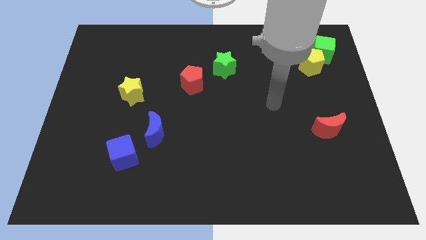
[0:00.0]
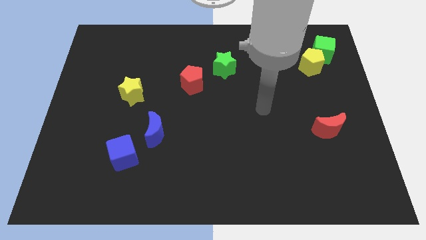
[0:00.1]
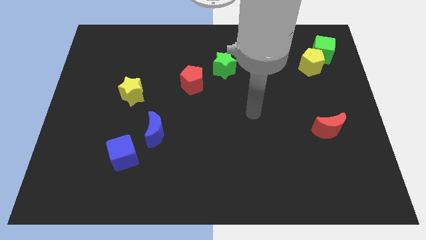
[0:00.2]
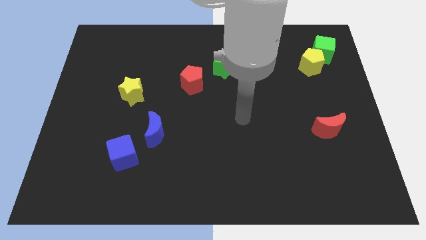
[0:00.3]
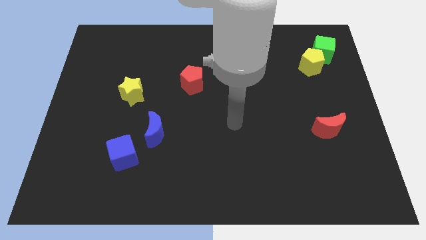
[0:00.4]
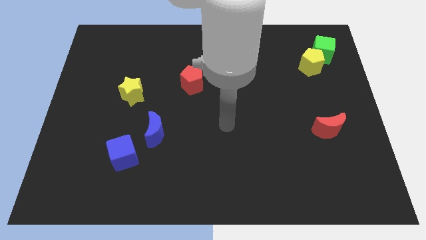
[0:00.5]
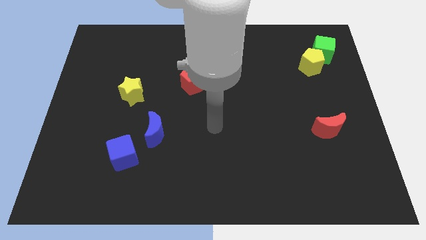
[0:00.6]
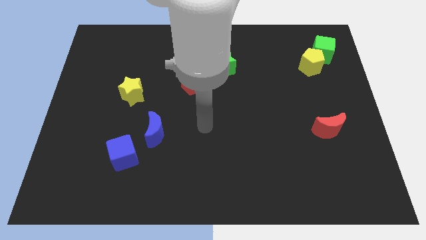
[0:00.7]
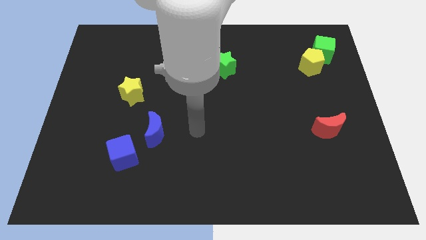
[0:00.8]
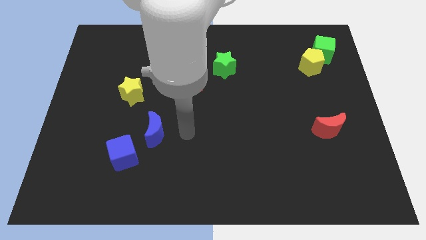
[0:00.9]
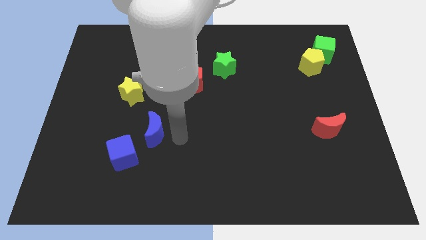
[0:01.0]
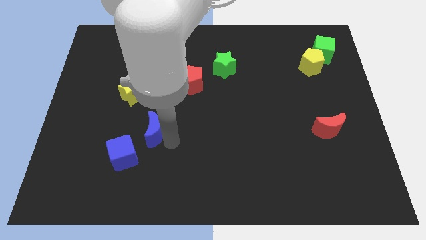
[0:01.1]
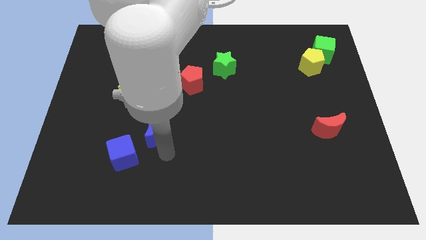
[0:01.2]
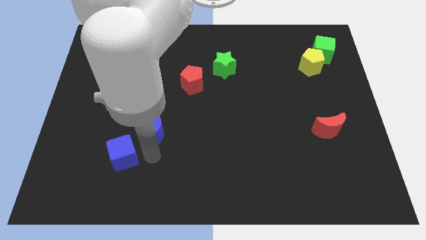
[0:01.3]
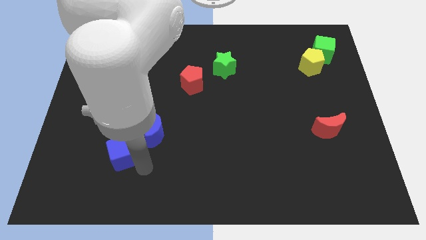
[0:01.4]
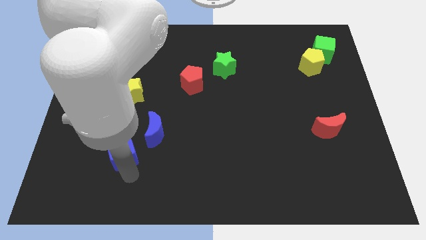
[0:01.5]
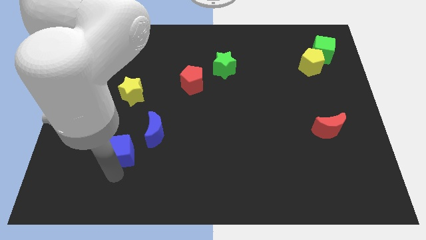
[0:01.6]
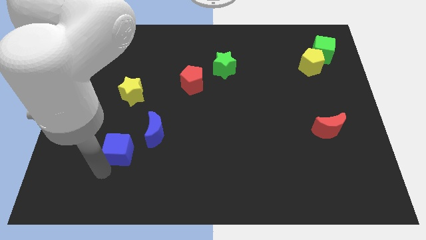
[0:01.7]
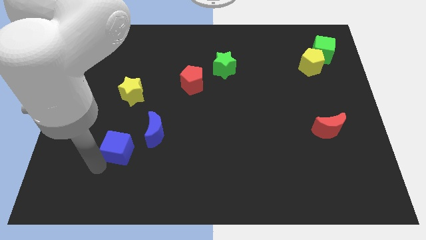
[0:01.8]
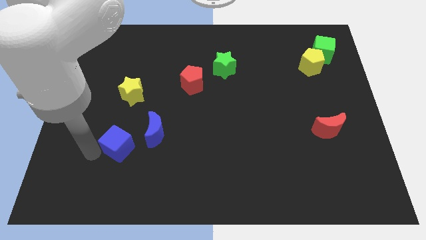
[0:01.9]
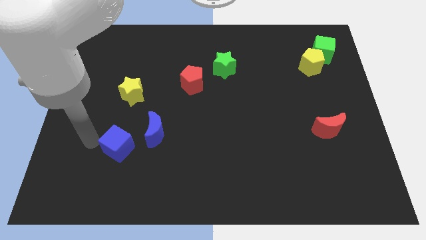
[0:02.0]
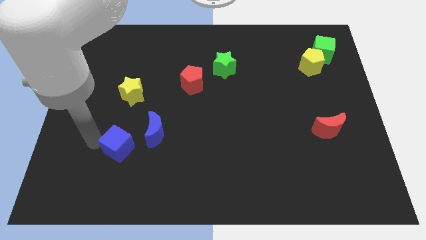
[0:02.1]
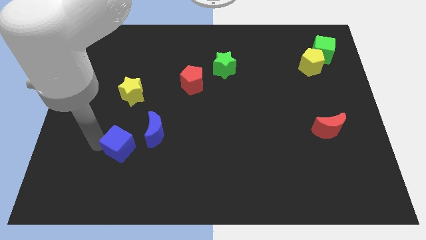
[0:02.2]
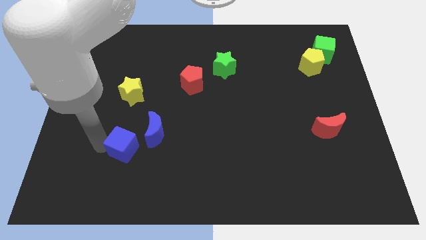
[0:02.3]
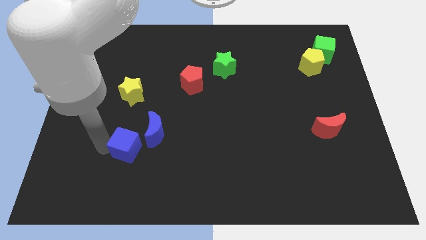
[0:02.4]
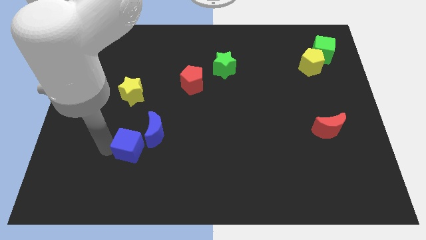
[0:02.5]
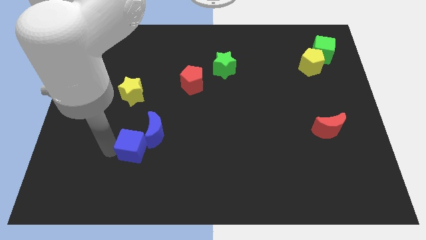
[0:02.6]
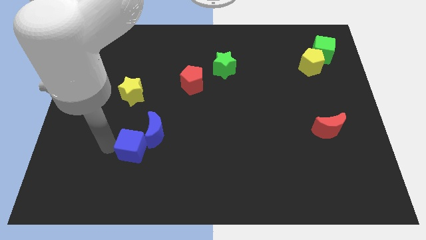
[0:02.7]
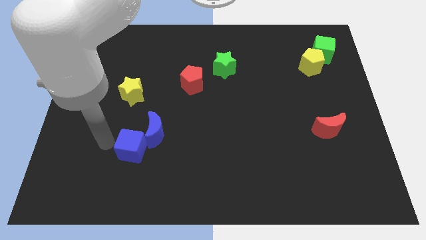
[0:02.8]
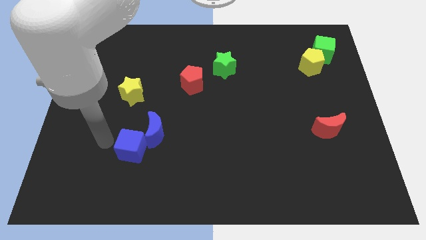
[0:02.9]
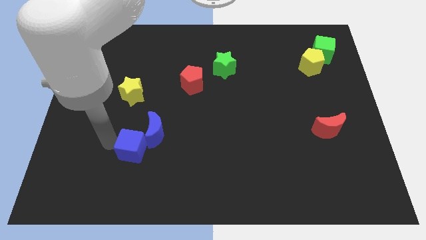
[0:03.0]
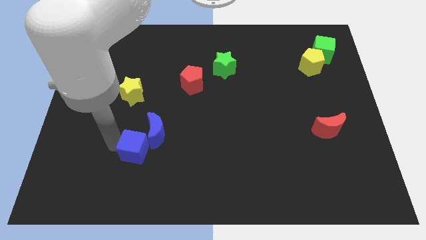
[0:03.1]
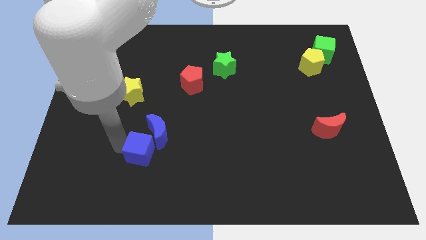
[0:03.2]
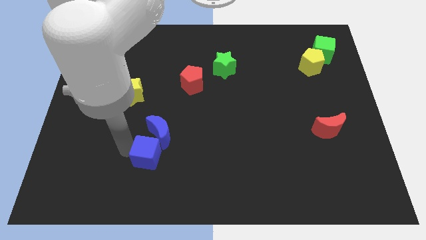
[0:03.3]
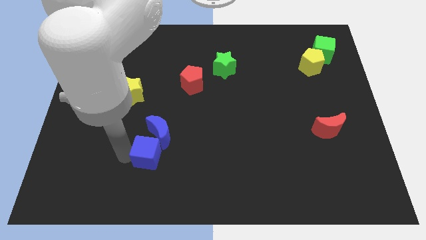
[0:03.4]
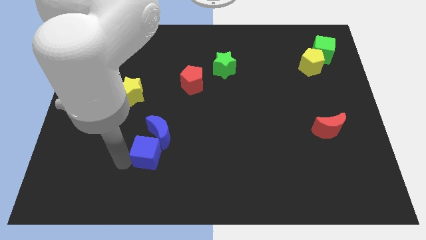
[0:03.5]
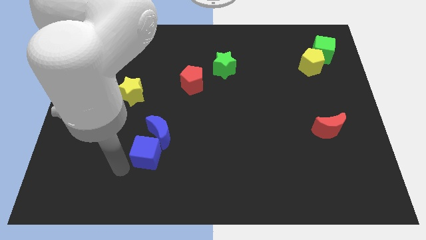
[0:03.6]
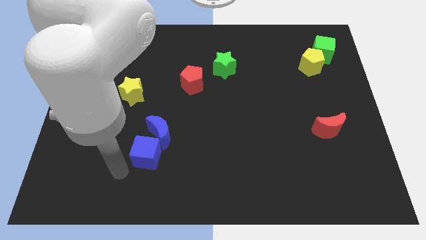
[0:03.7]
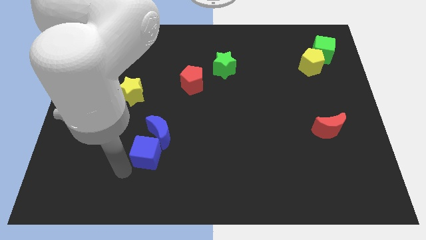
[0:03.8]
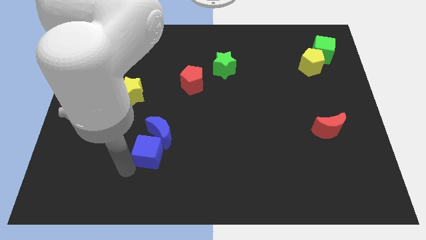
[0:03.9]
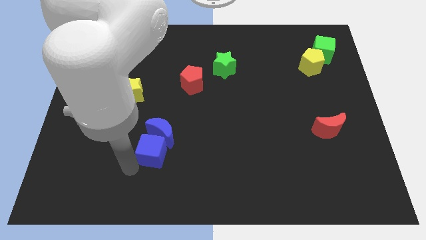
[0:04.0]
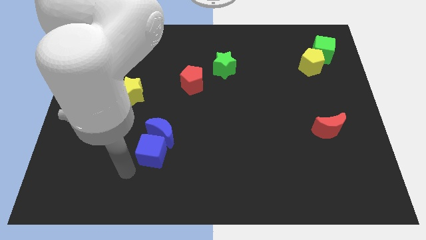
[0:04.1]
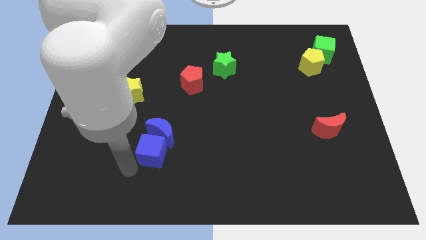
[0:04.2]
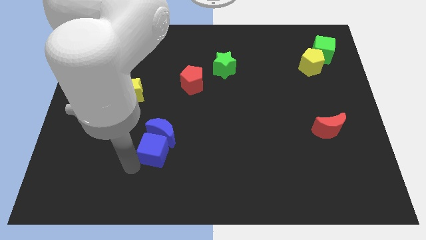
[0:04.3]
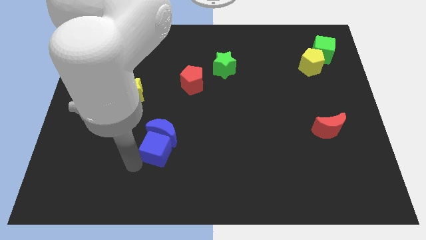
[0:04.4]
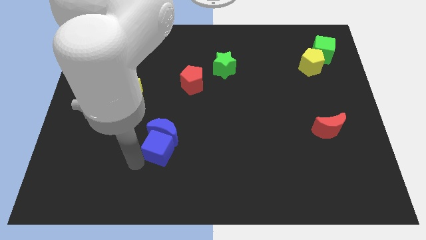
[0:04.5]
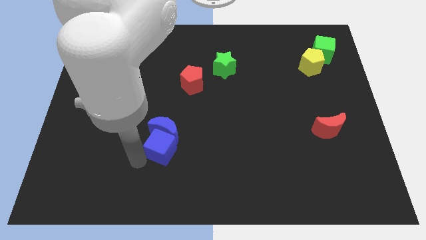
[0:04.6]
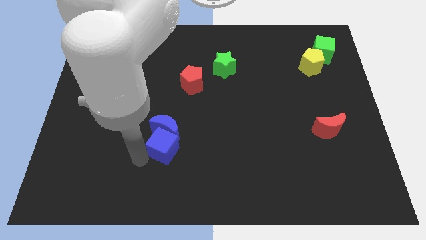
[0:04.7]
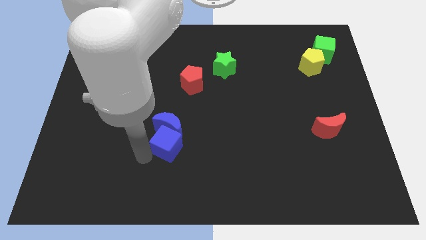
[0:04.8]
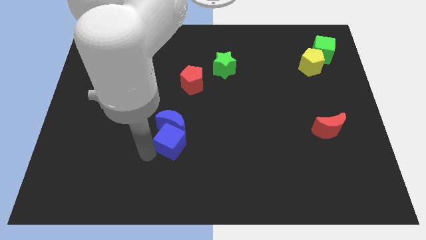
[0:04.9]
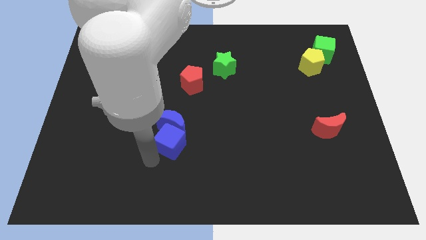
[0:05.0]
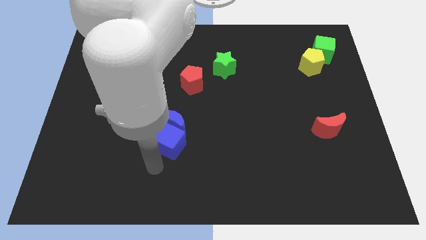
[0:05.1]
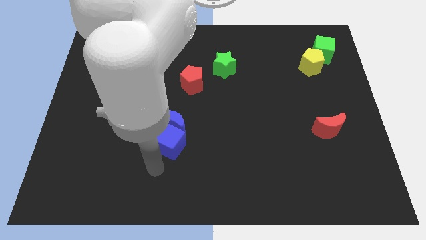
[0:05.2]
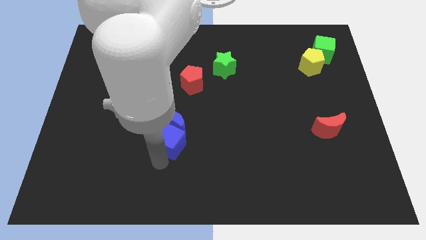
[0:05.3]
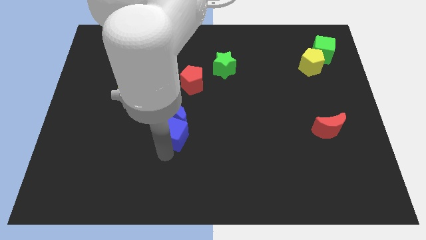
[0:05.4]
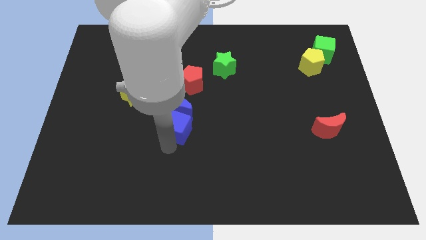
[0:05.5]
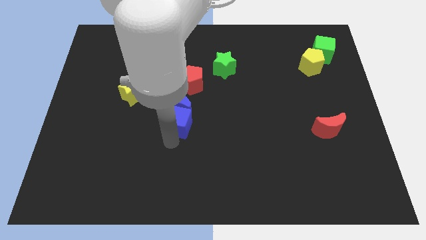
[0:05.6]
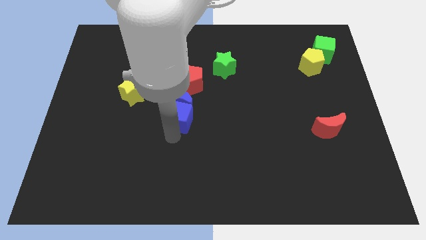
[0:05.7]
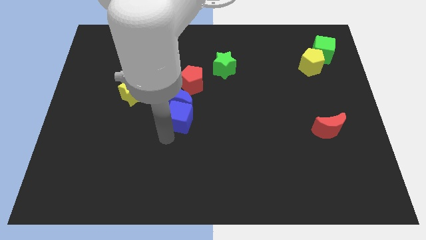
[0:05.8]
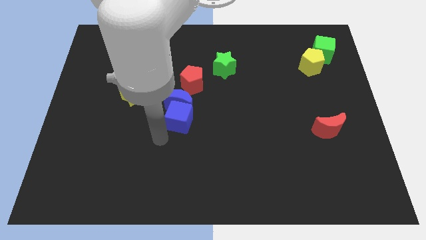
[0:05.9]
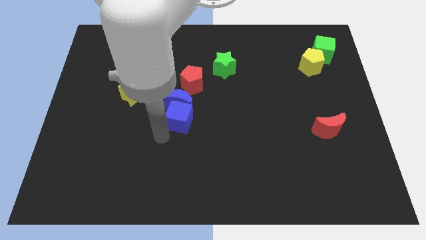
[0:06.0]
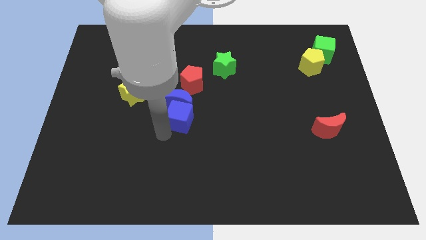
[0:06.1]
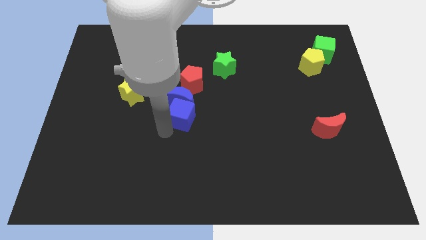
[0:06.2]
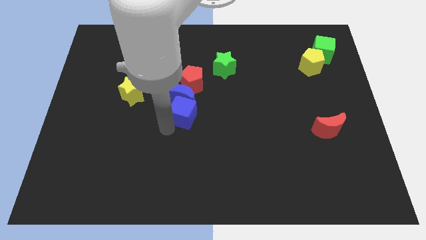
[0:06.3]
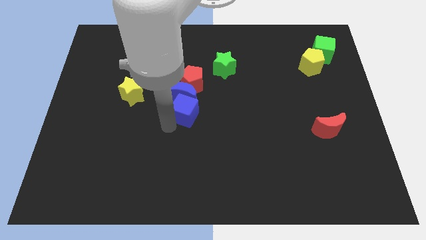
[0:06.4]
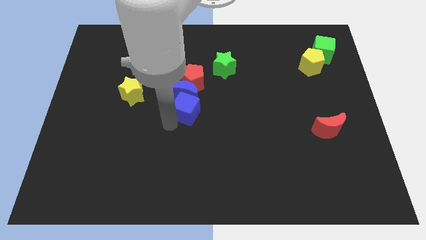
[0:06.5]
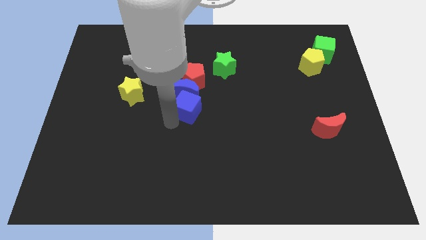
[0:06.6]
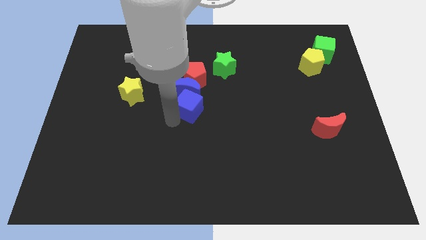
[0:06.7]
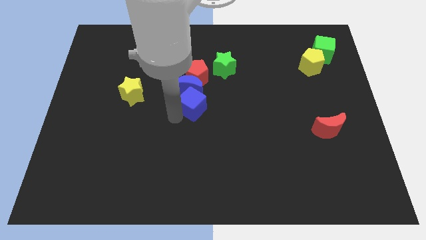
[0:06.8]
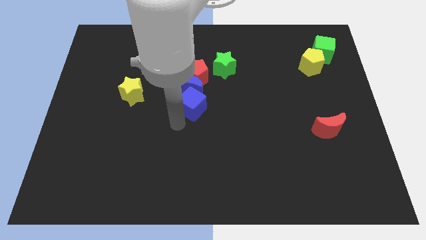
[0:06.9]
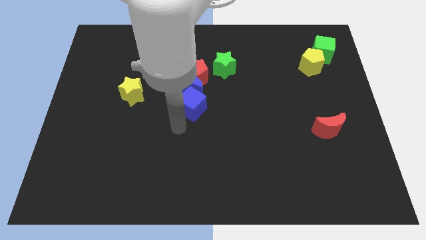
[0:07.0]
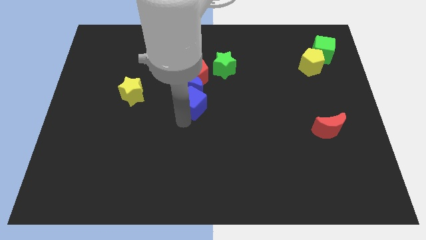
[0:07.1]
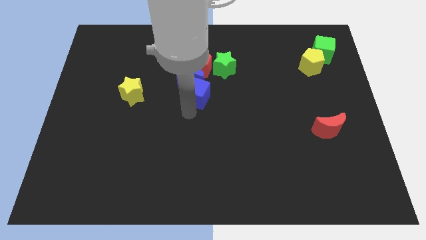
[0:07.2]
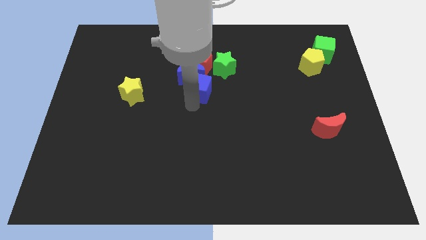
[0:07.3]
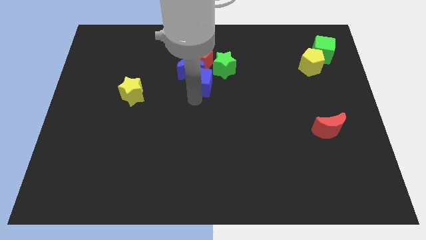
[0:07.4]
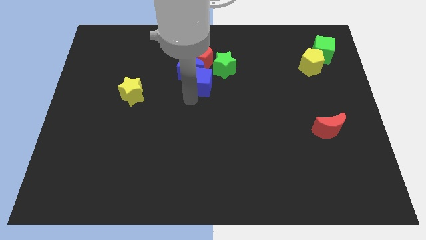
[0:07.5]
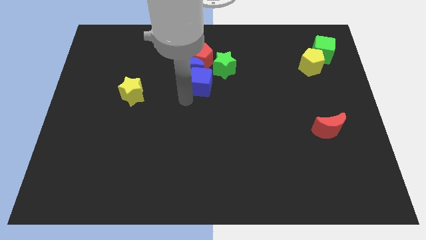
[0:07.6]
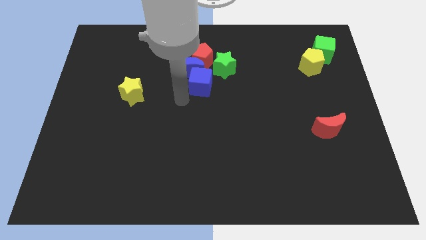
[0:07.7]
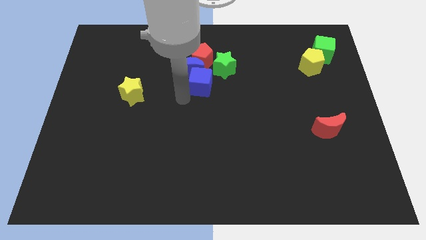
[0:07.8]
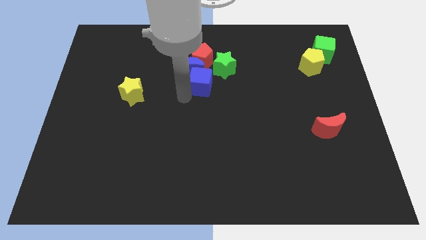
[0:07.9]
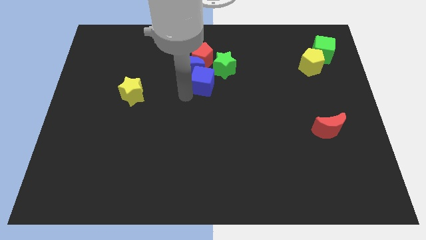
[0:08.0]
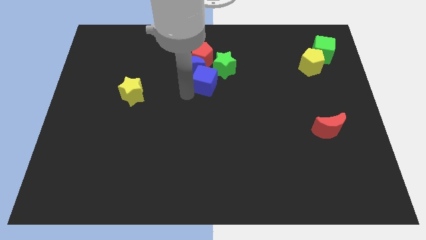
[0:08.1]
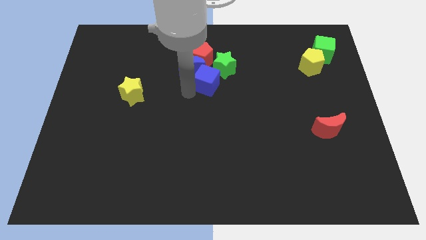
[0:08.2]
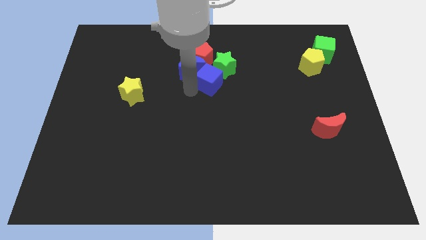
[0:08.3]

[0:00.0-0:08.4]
move the blue cube towards the green star
